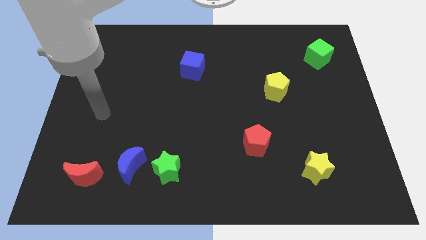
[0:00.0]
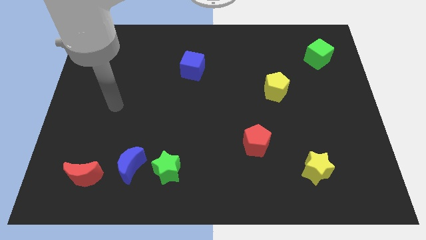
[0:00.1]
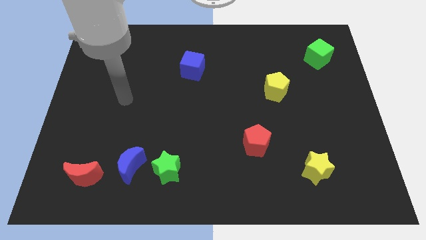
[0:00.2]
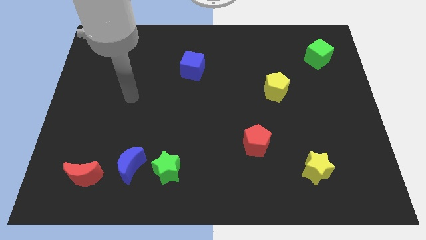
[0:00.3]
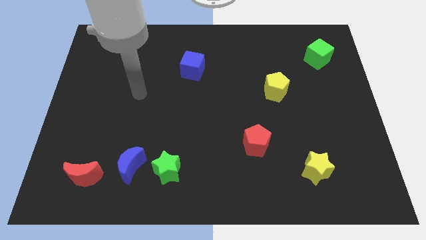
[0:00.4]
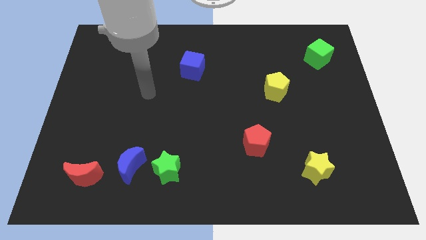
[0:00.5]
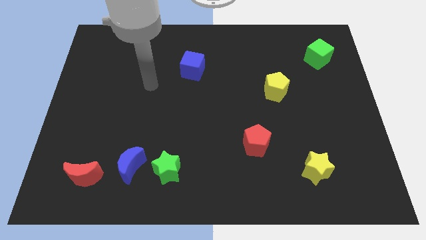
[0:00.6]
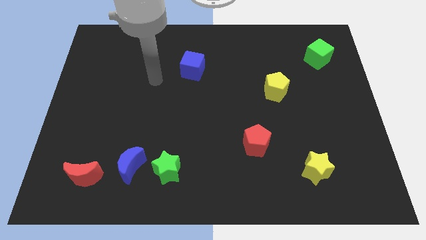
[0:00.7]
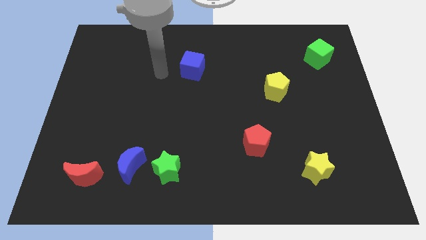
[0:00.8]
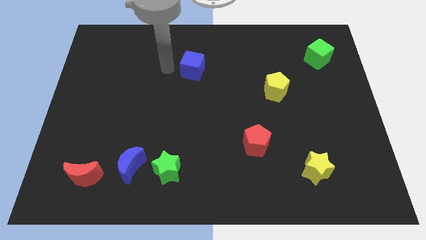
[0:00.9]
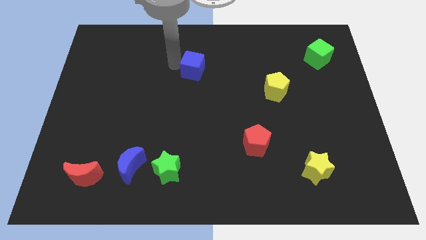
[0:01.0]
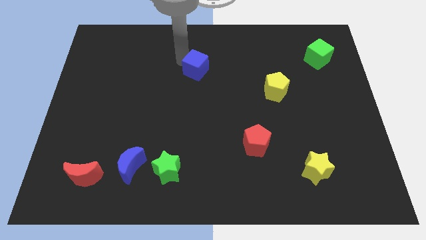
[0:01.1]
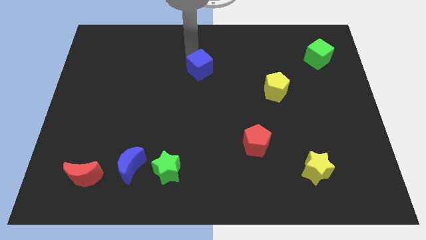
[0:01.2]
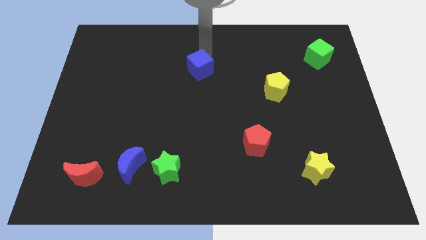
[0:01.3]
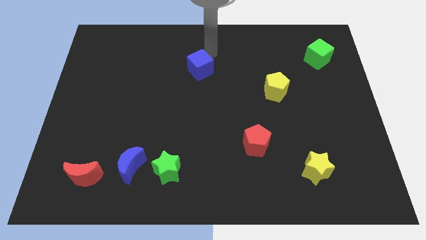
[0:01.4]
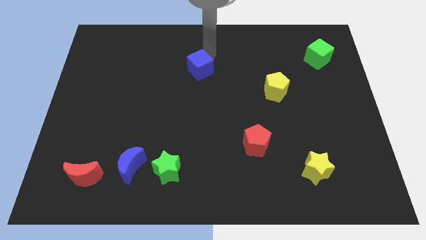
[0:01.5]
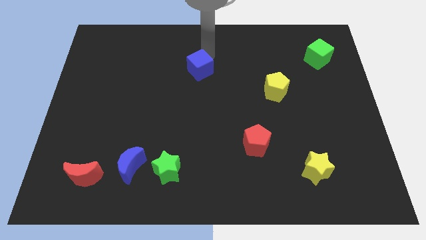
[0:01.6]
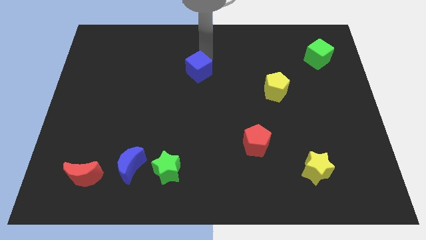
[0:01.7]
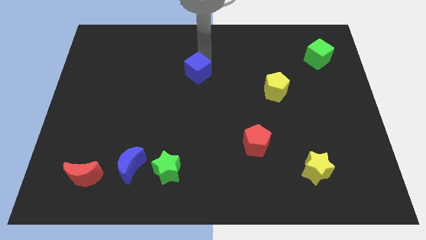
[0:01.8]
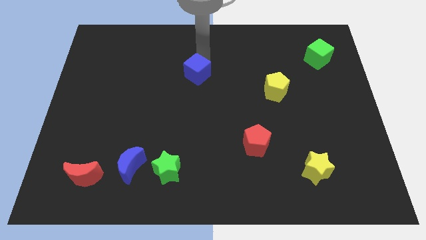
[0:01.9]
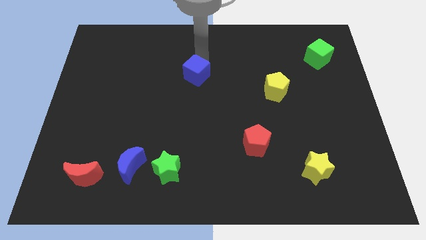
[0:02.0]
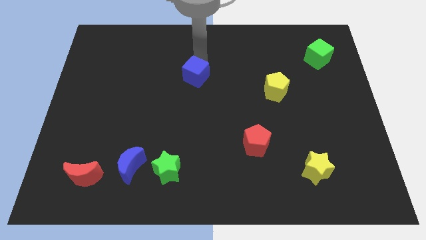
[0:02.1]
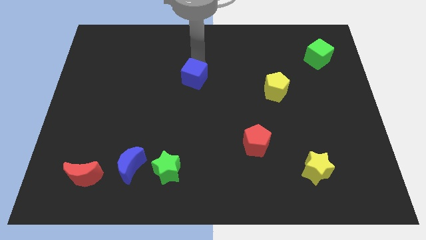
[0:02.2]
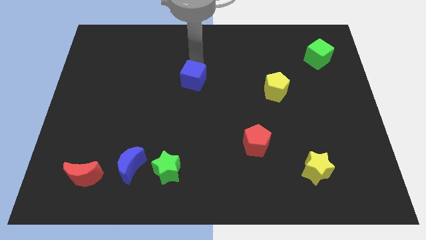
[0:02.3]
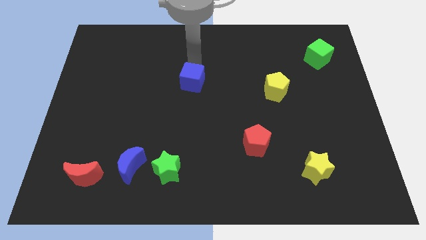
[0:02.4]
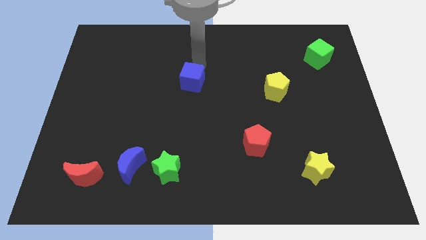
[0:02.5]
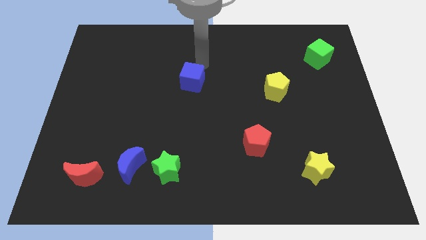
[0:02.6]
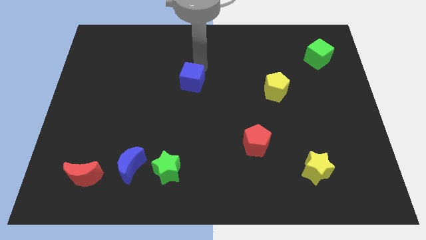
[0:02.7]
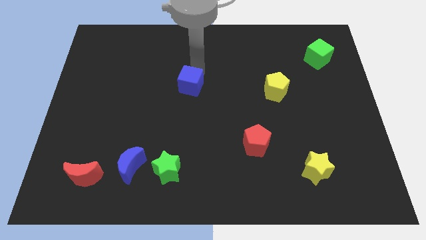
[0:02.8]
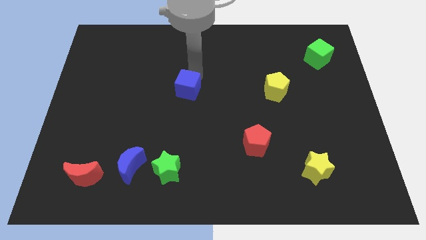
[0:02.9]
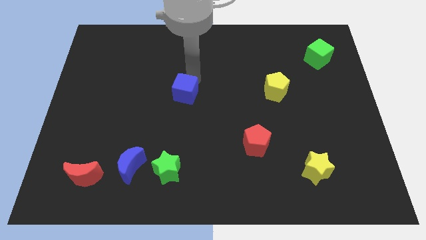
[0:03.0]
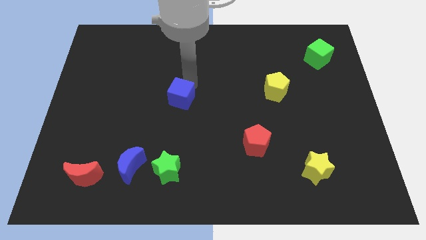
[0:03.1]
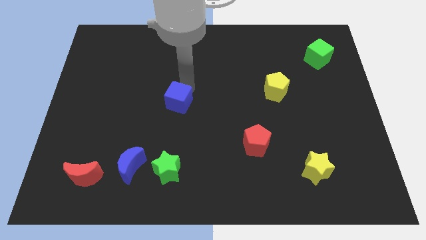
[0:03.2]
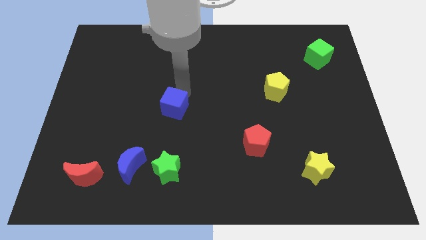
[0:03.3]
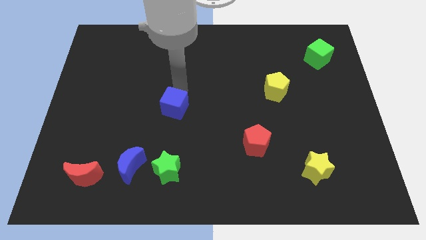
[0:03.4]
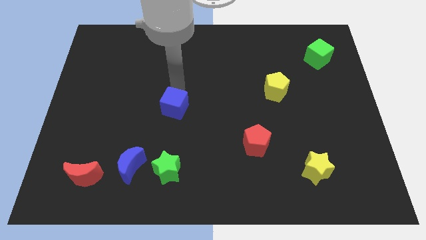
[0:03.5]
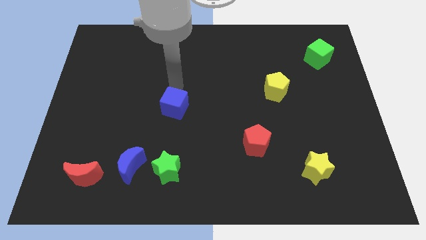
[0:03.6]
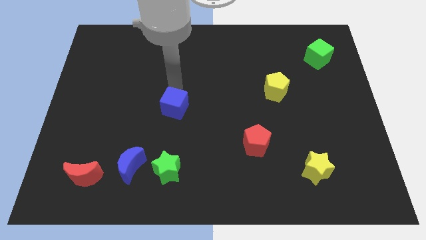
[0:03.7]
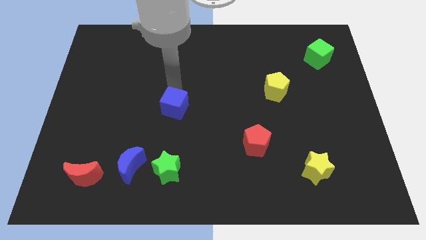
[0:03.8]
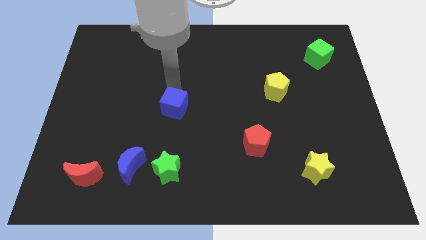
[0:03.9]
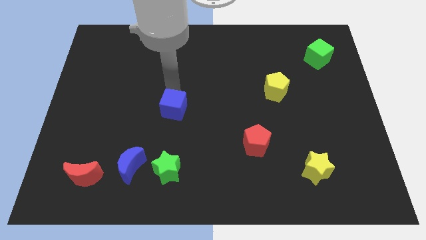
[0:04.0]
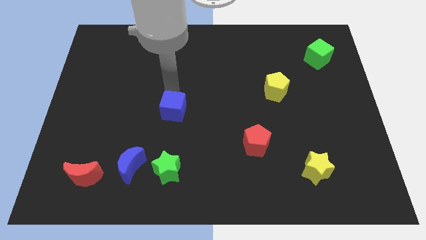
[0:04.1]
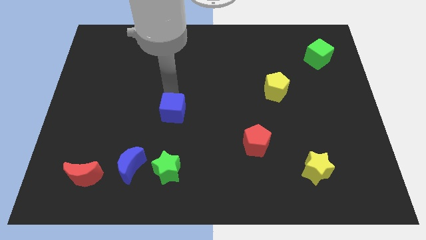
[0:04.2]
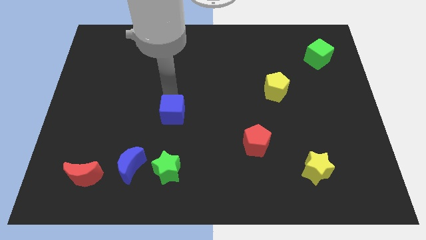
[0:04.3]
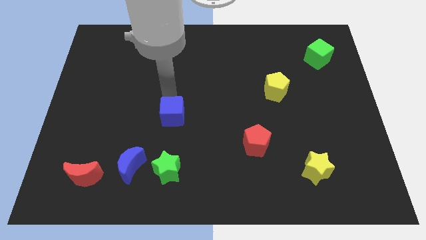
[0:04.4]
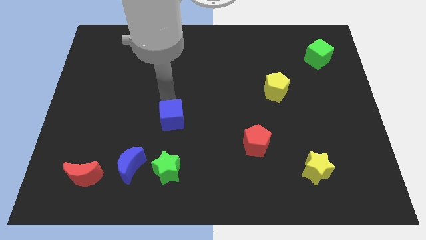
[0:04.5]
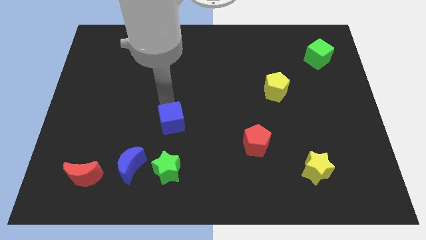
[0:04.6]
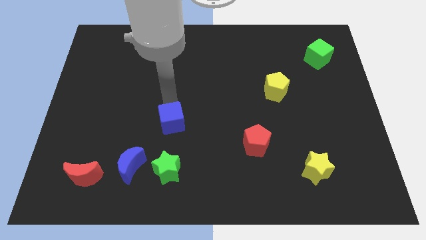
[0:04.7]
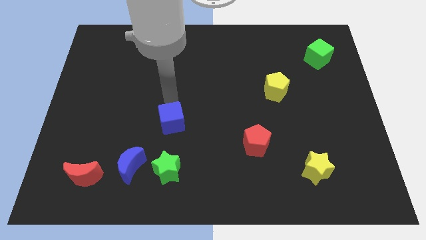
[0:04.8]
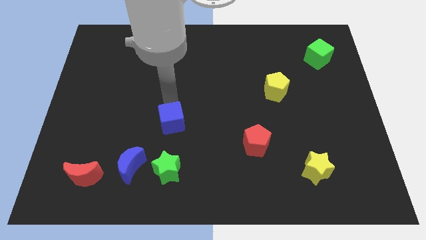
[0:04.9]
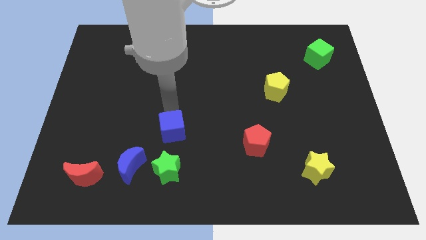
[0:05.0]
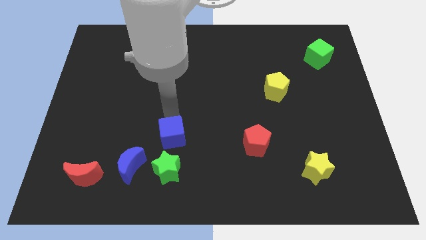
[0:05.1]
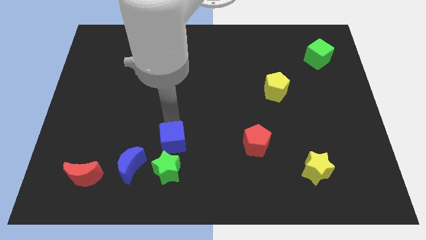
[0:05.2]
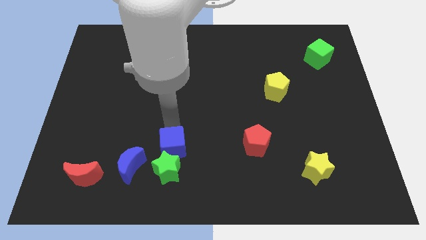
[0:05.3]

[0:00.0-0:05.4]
move the blue cube close to the green star

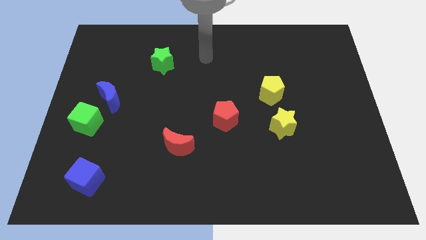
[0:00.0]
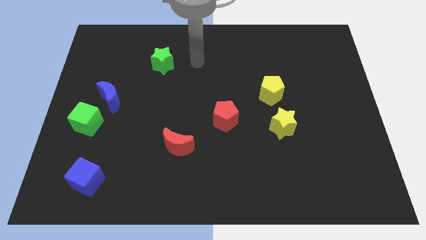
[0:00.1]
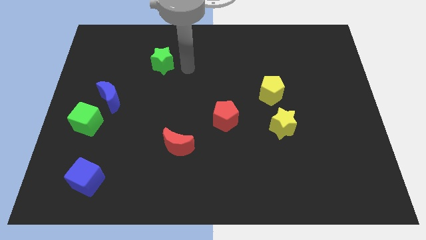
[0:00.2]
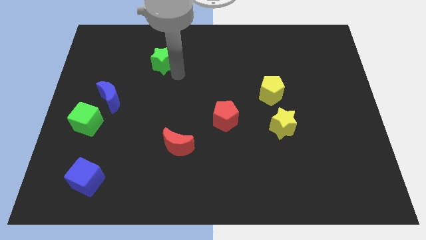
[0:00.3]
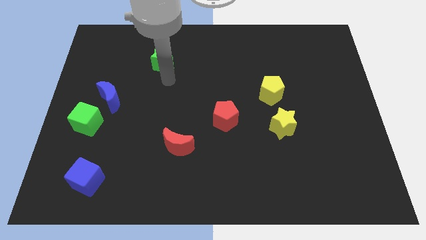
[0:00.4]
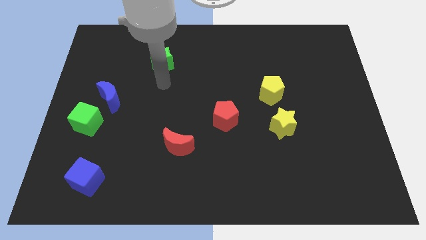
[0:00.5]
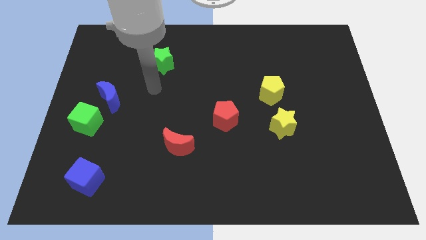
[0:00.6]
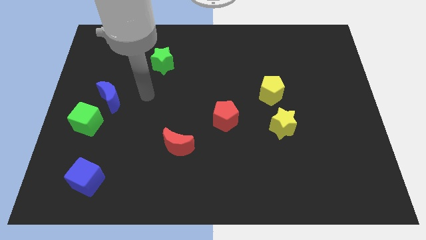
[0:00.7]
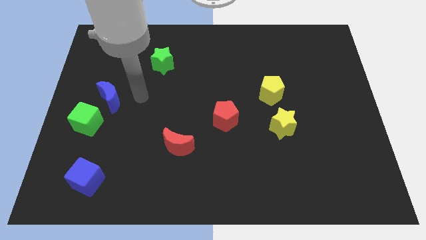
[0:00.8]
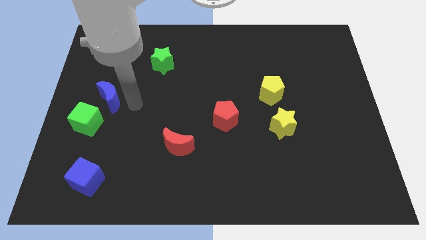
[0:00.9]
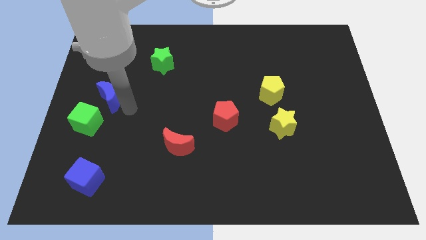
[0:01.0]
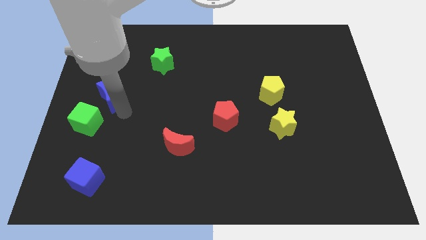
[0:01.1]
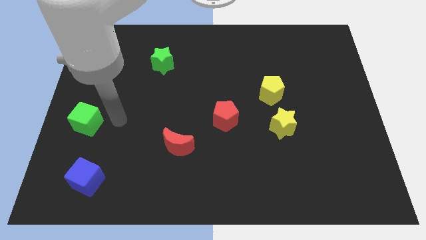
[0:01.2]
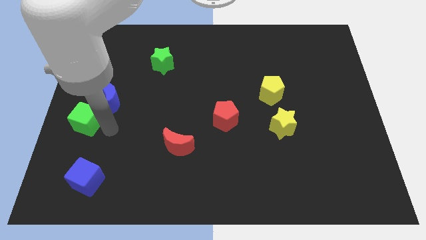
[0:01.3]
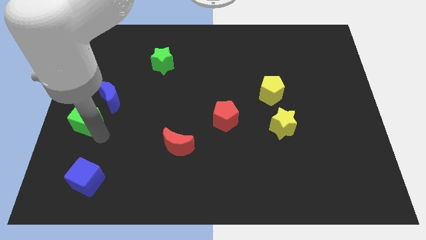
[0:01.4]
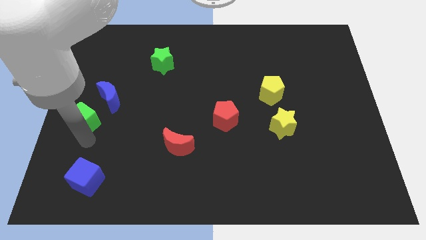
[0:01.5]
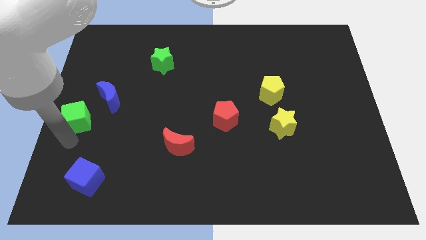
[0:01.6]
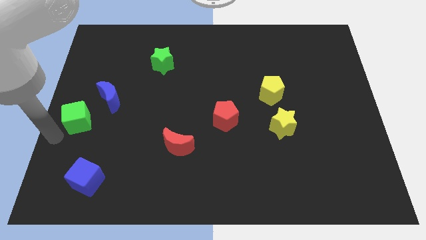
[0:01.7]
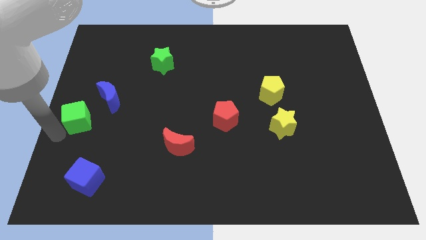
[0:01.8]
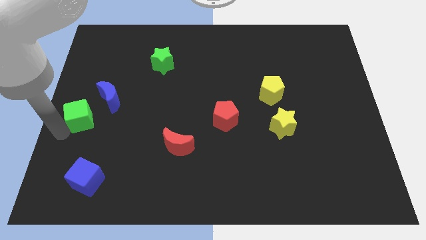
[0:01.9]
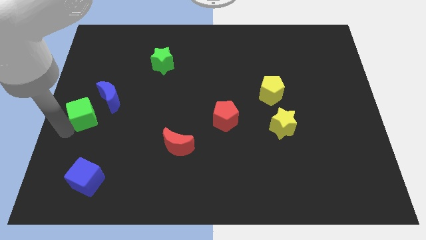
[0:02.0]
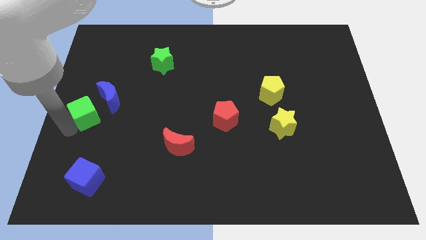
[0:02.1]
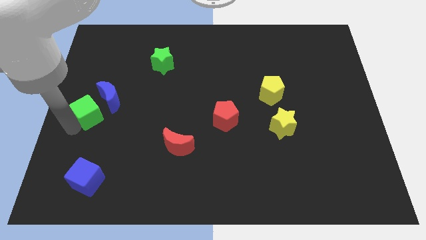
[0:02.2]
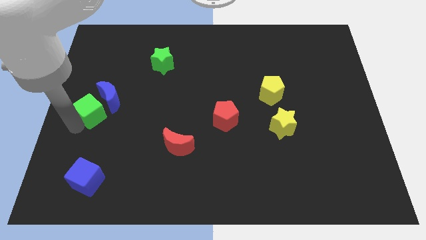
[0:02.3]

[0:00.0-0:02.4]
slide the green cube to the blue moon
